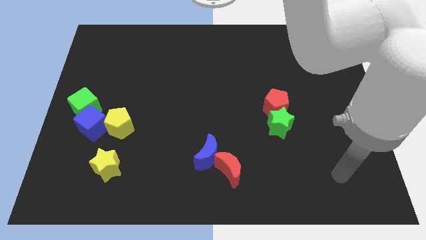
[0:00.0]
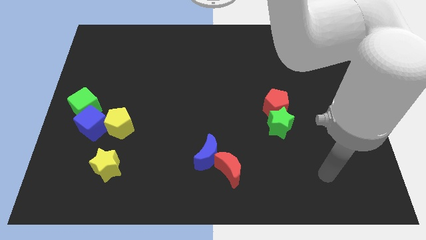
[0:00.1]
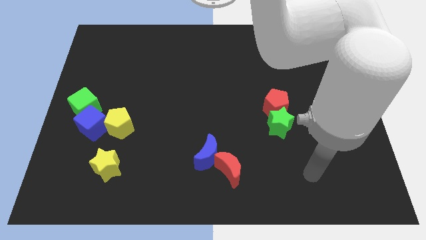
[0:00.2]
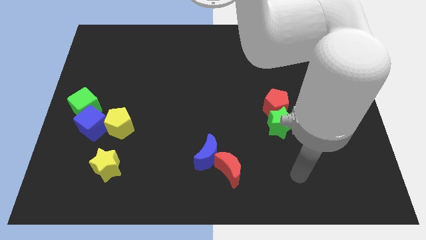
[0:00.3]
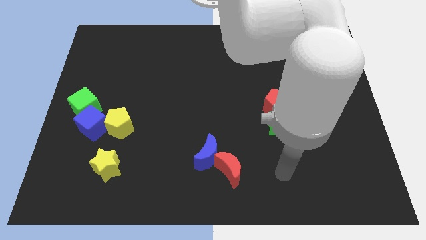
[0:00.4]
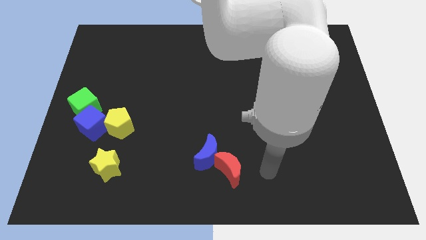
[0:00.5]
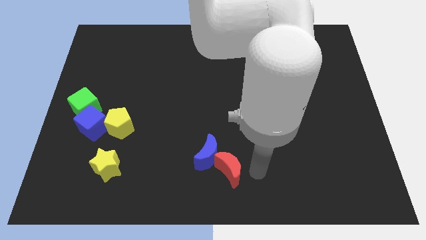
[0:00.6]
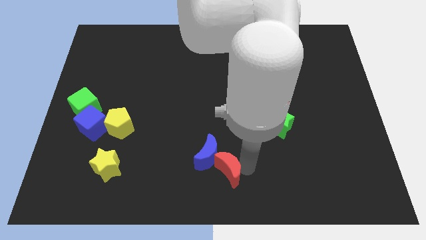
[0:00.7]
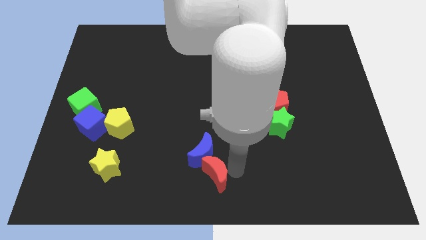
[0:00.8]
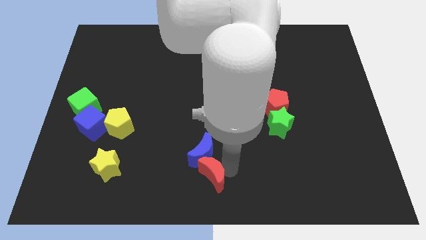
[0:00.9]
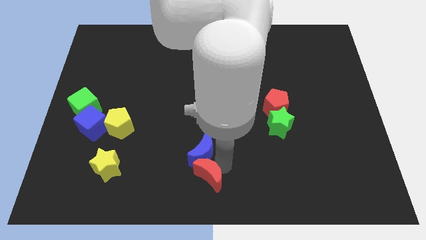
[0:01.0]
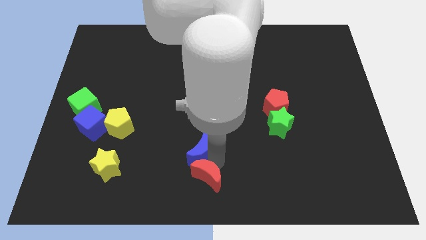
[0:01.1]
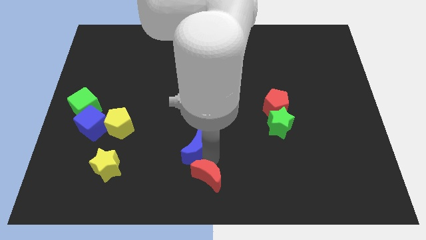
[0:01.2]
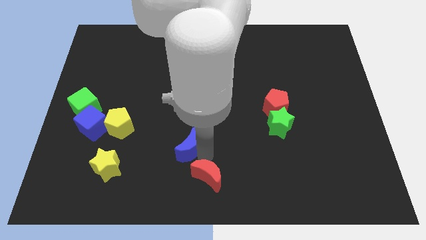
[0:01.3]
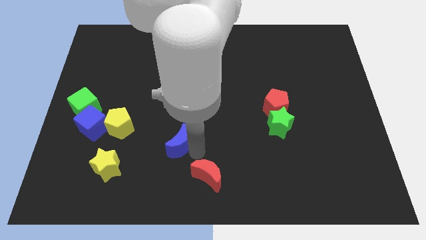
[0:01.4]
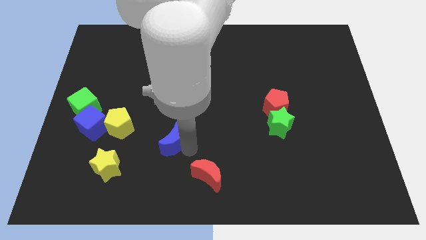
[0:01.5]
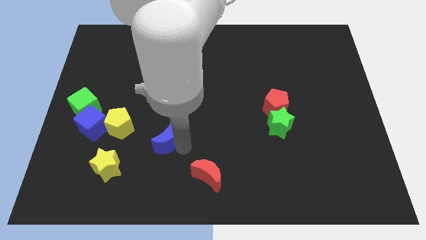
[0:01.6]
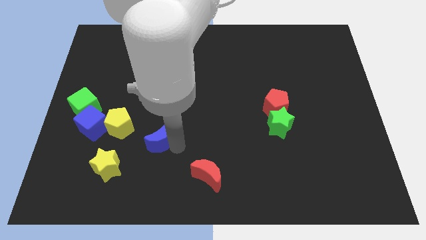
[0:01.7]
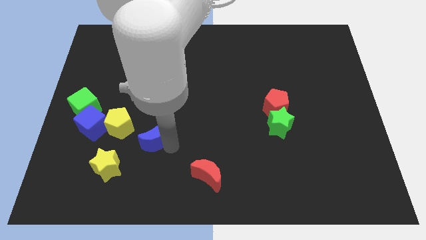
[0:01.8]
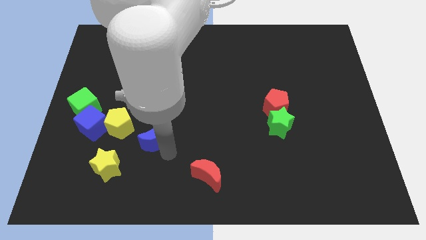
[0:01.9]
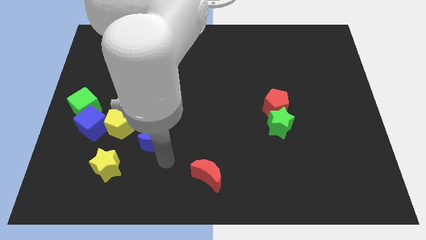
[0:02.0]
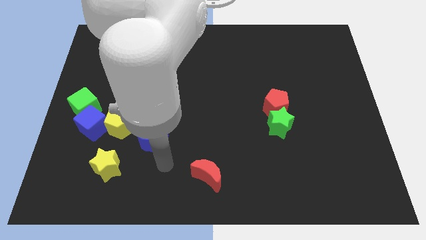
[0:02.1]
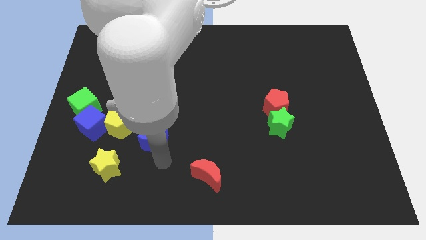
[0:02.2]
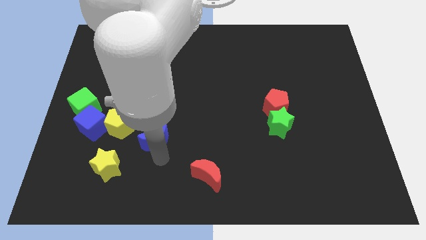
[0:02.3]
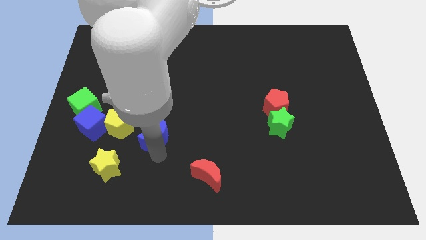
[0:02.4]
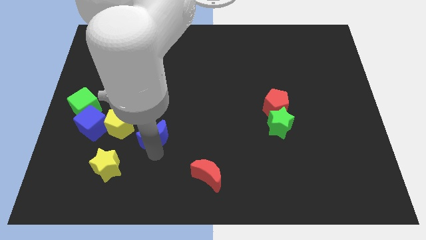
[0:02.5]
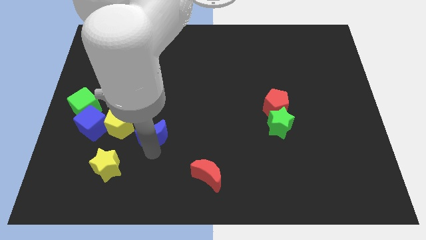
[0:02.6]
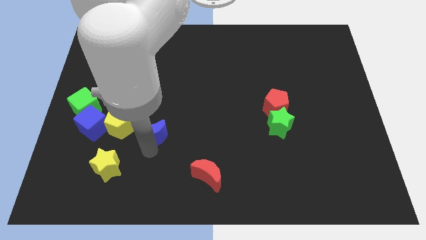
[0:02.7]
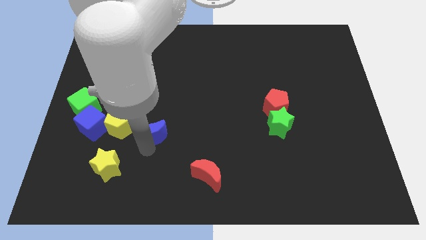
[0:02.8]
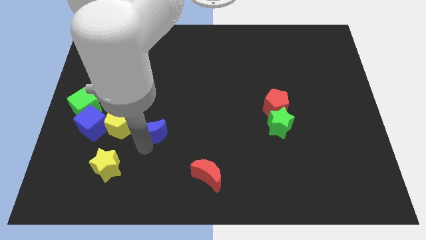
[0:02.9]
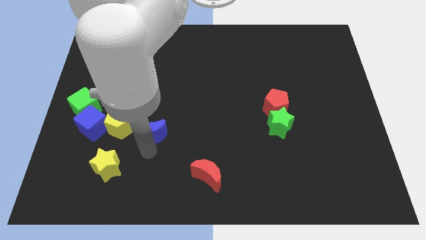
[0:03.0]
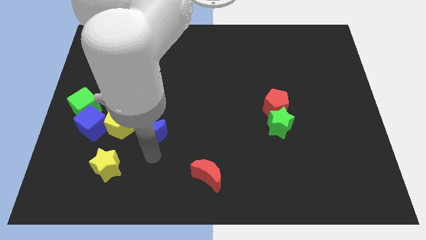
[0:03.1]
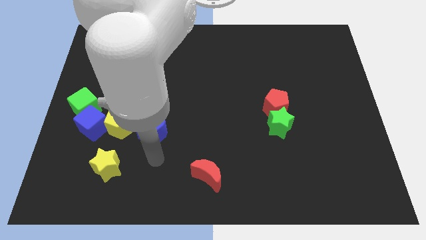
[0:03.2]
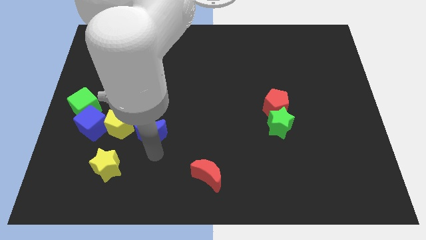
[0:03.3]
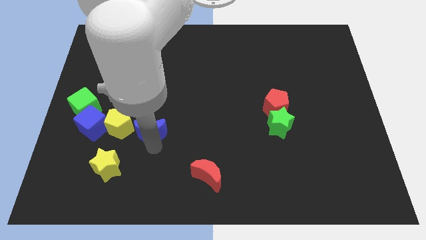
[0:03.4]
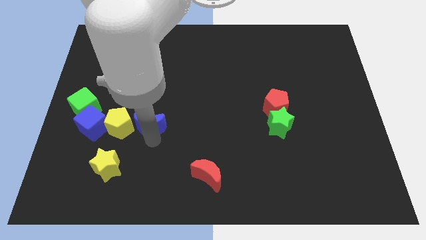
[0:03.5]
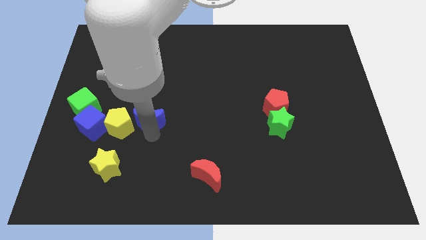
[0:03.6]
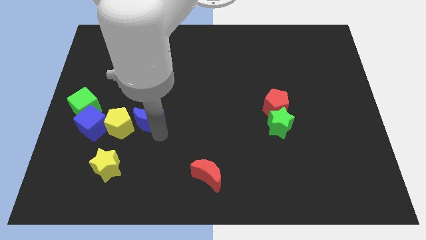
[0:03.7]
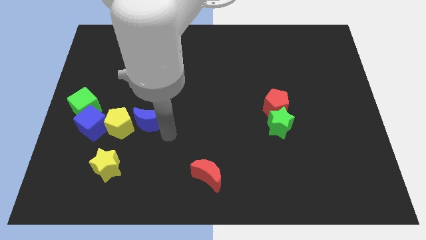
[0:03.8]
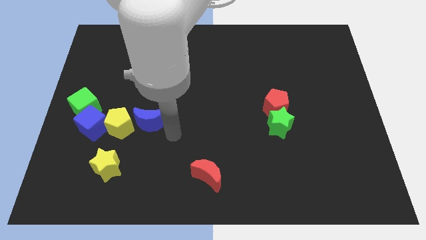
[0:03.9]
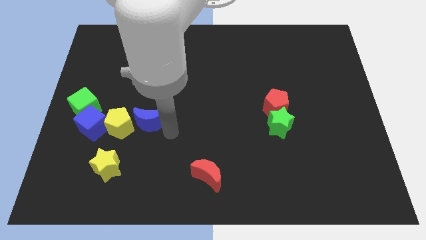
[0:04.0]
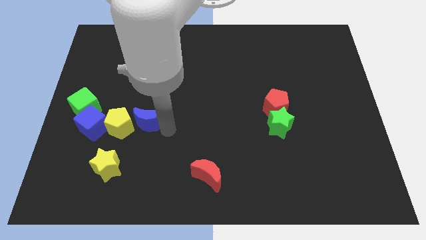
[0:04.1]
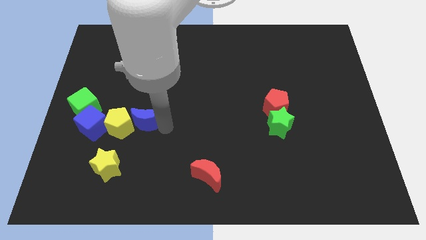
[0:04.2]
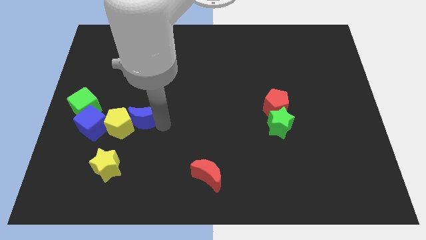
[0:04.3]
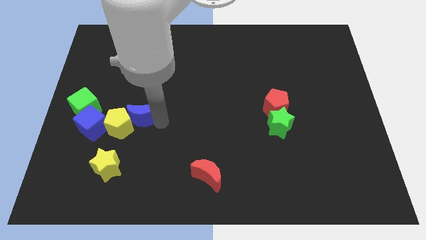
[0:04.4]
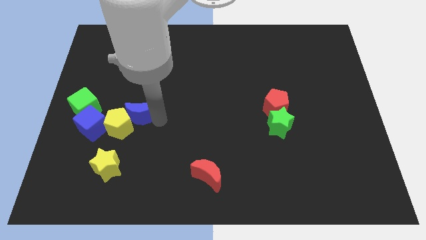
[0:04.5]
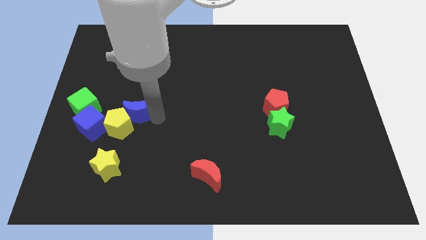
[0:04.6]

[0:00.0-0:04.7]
slide the blue moon to the top right of the blue cube

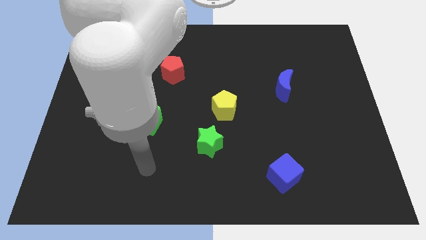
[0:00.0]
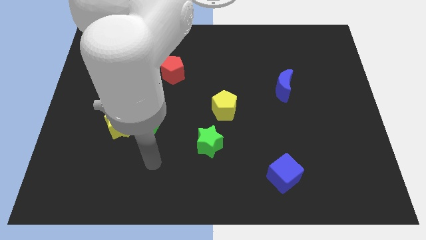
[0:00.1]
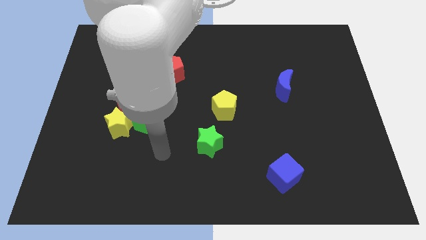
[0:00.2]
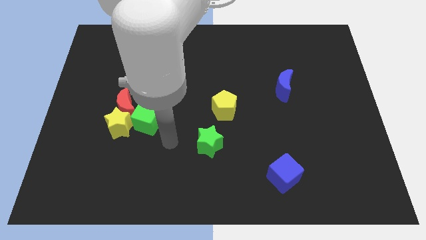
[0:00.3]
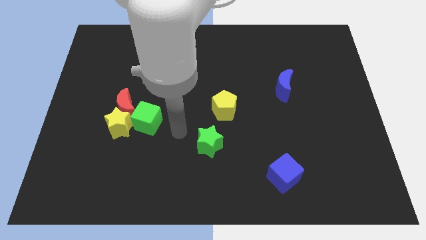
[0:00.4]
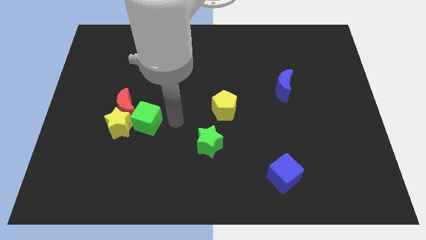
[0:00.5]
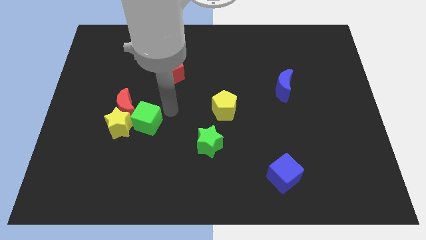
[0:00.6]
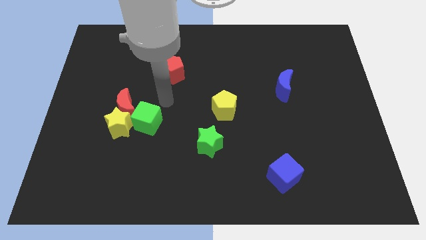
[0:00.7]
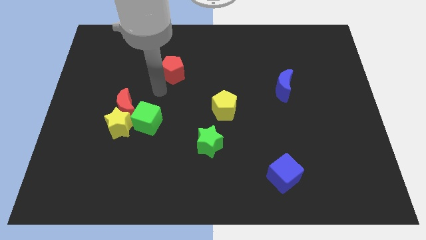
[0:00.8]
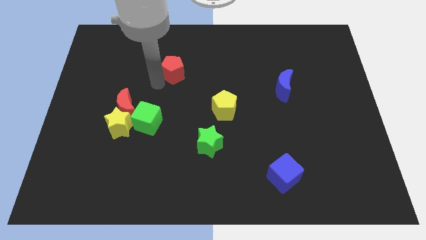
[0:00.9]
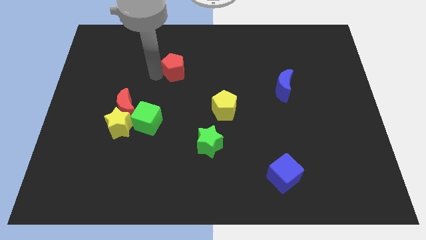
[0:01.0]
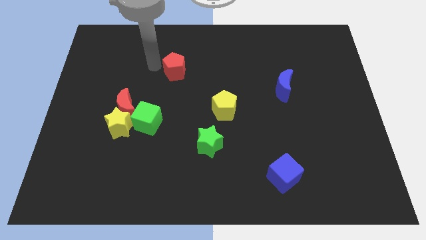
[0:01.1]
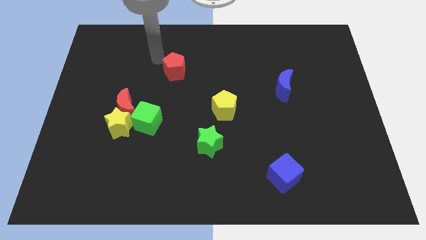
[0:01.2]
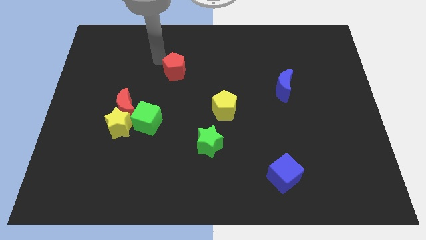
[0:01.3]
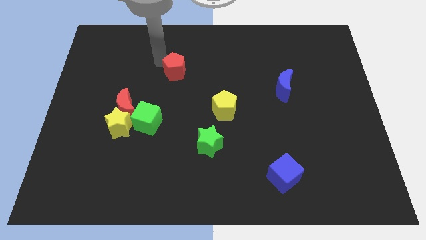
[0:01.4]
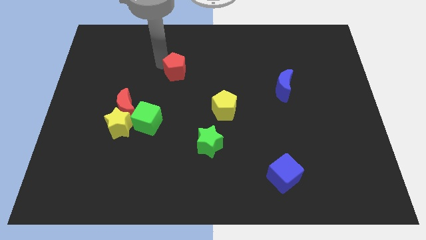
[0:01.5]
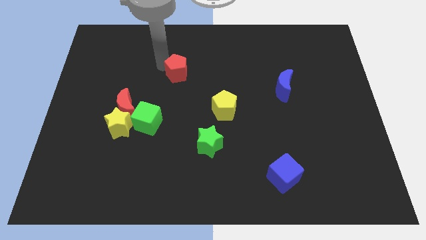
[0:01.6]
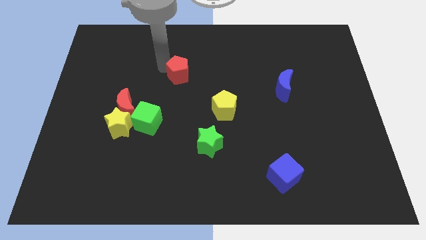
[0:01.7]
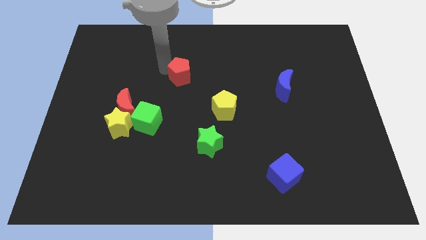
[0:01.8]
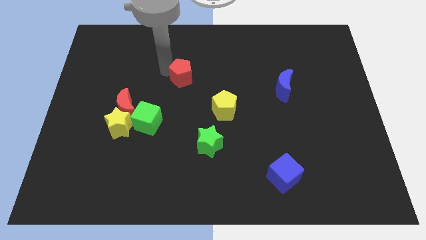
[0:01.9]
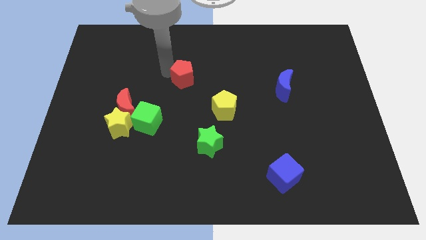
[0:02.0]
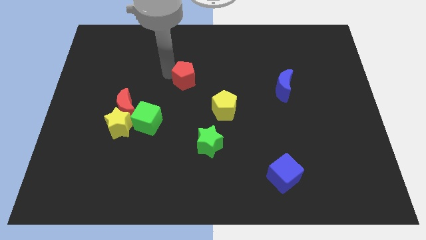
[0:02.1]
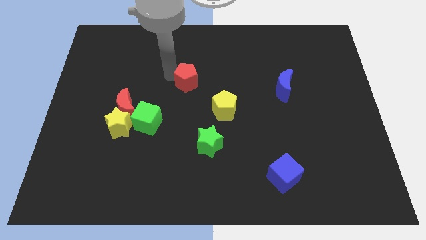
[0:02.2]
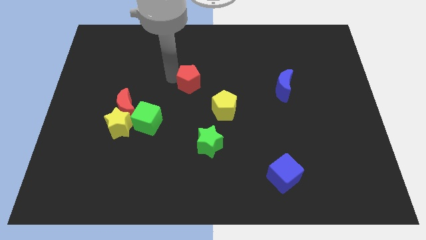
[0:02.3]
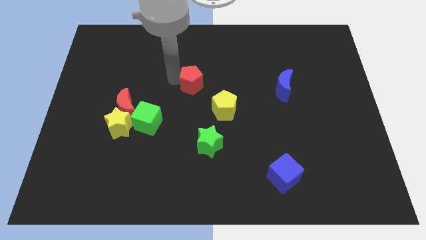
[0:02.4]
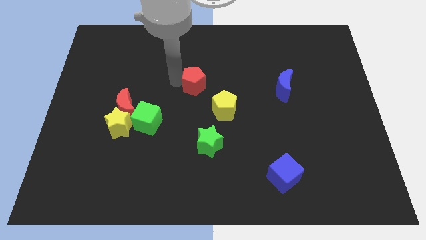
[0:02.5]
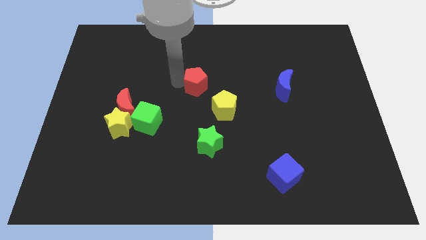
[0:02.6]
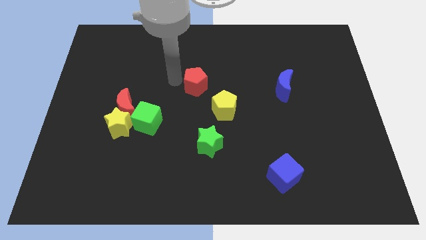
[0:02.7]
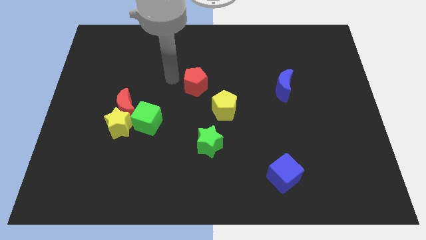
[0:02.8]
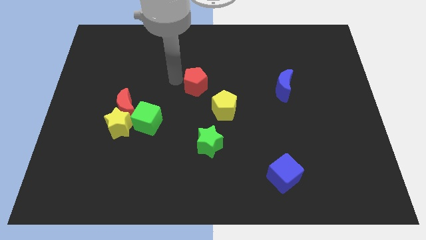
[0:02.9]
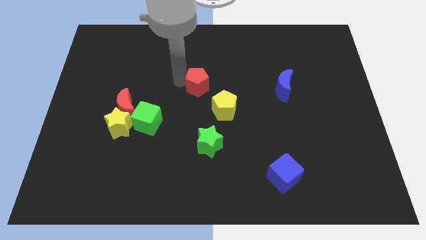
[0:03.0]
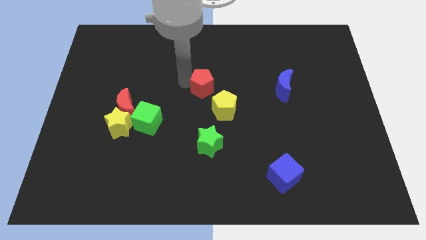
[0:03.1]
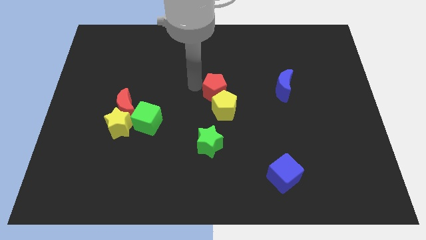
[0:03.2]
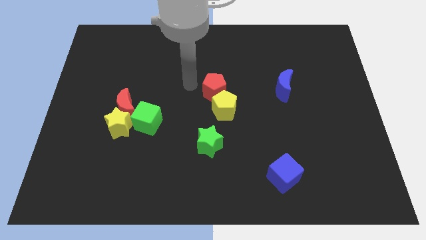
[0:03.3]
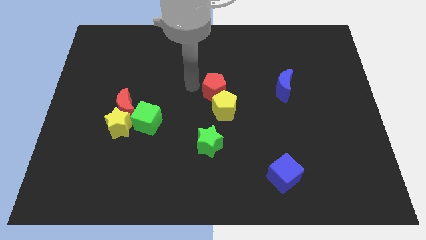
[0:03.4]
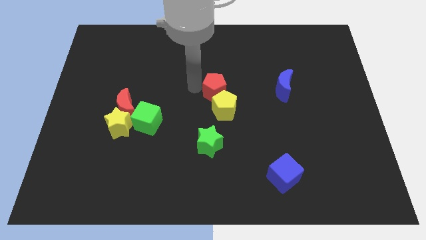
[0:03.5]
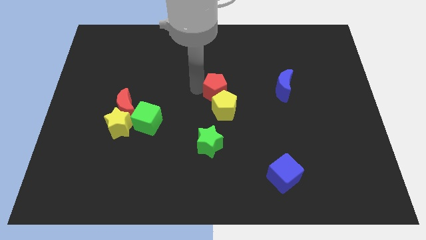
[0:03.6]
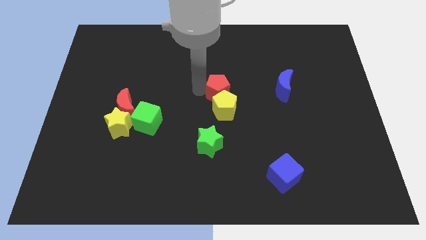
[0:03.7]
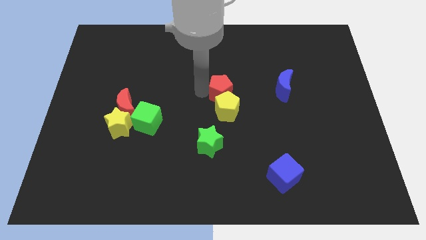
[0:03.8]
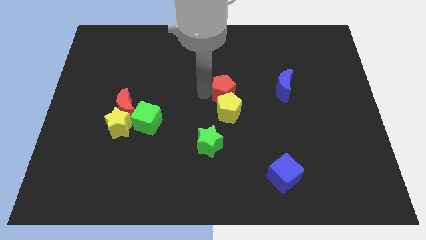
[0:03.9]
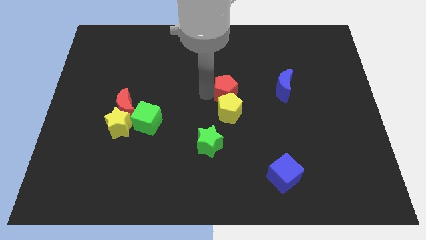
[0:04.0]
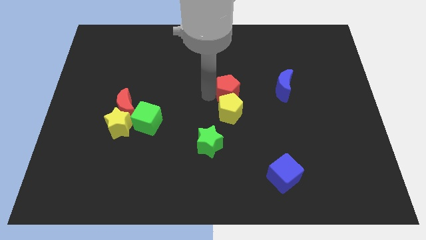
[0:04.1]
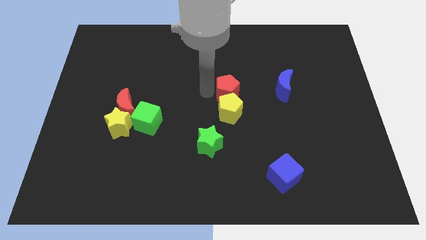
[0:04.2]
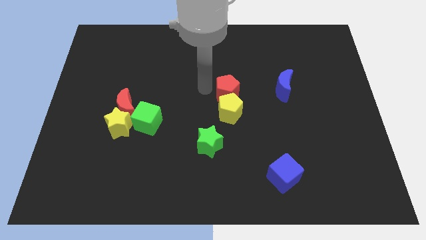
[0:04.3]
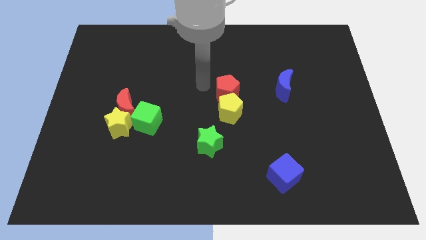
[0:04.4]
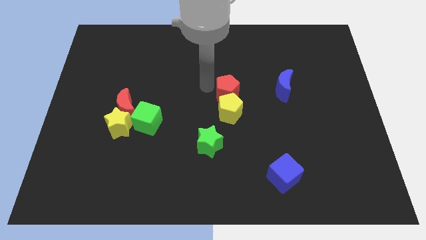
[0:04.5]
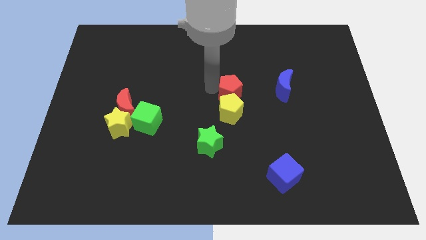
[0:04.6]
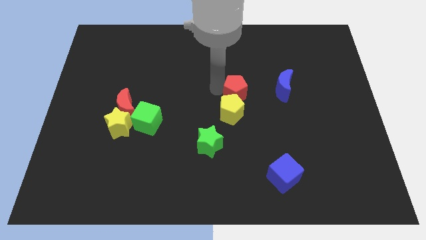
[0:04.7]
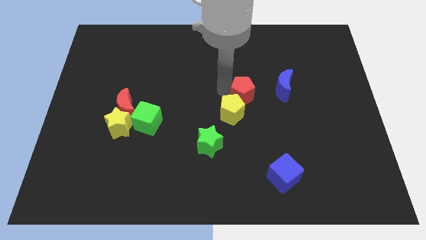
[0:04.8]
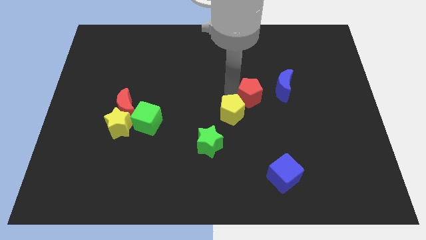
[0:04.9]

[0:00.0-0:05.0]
slide the red pentagon diagonally down and to the left of the blue moon
